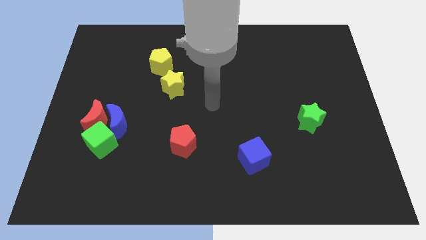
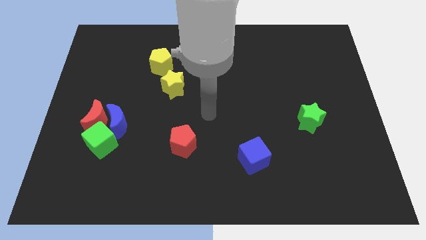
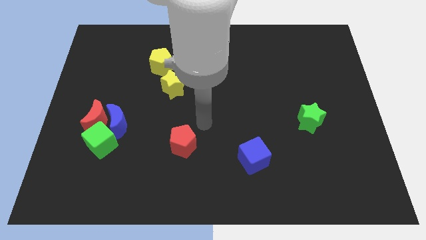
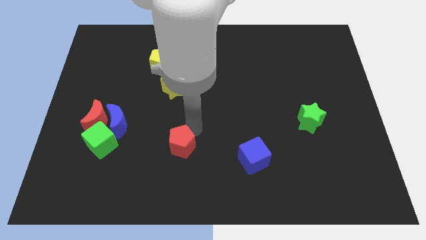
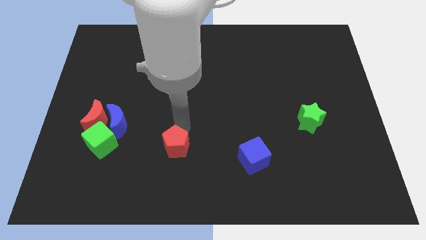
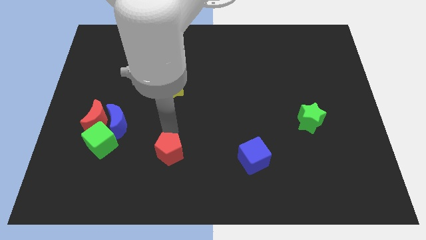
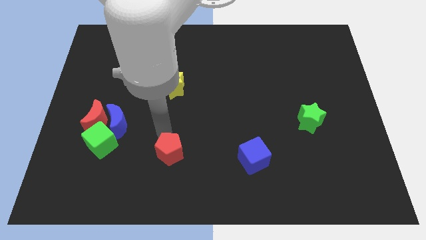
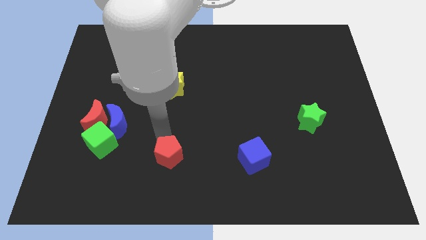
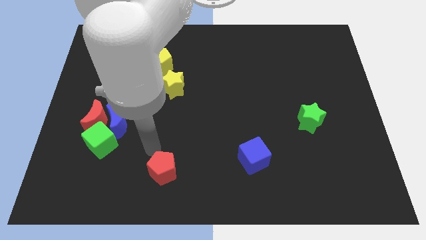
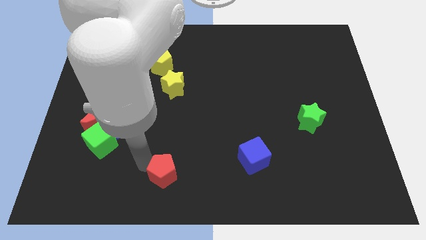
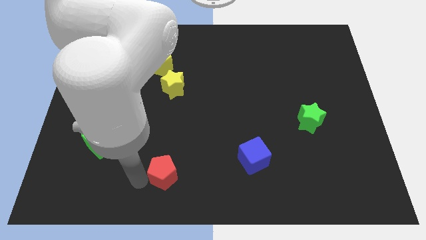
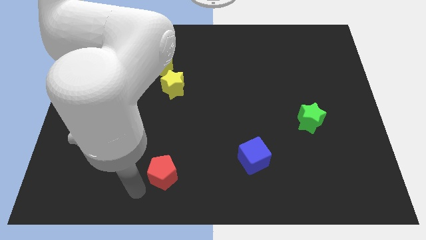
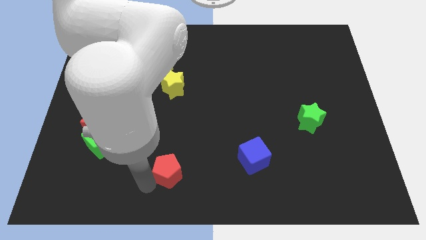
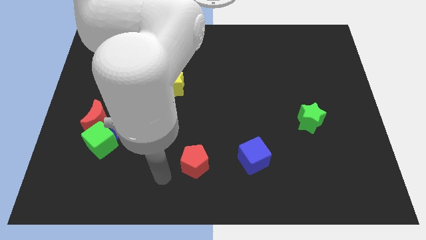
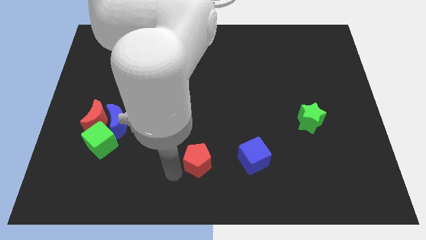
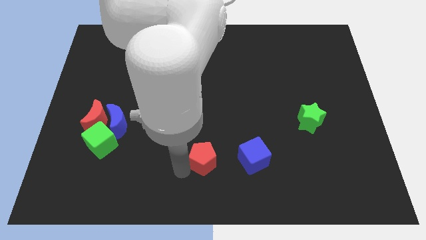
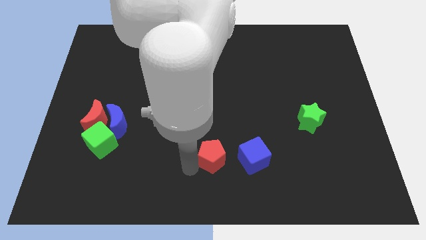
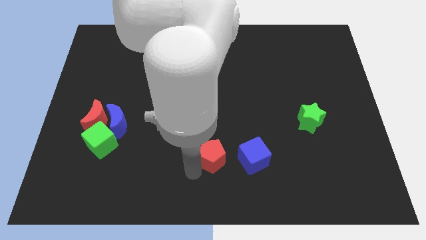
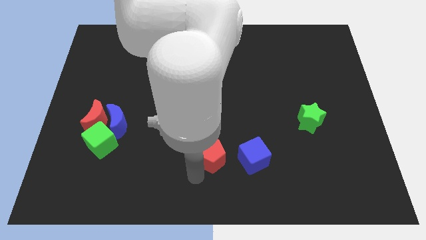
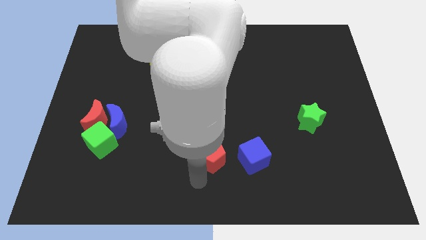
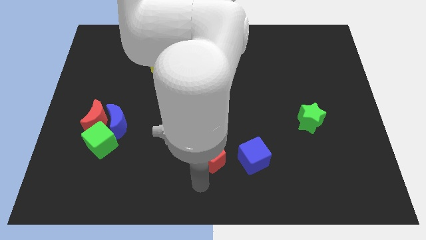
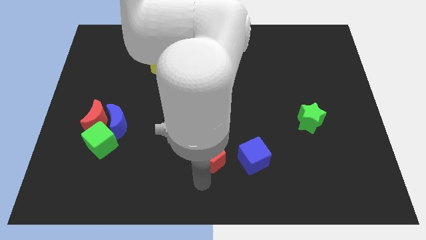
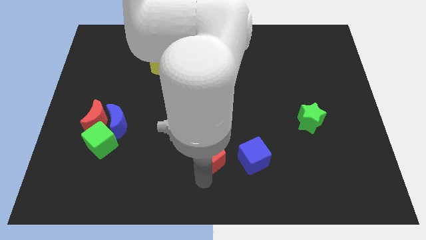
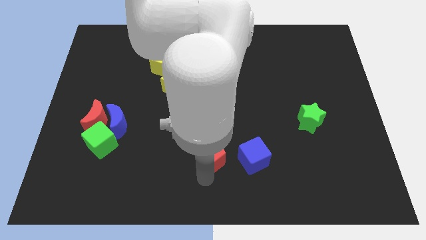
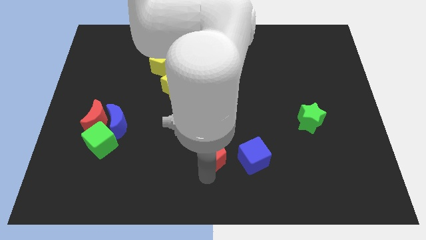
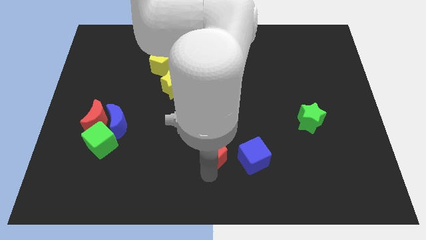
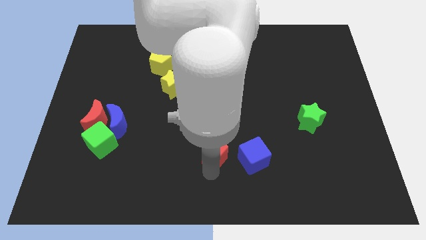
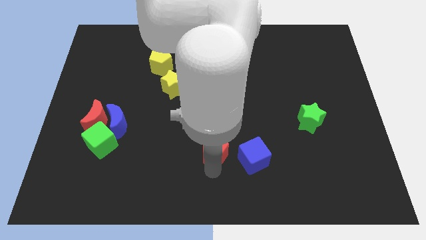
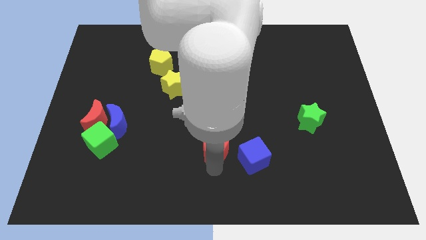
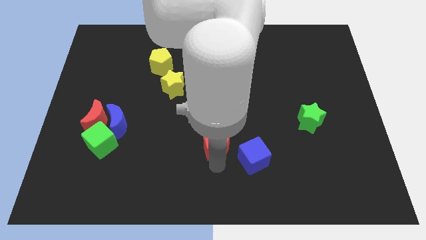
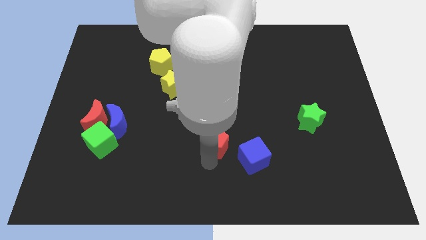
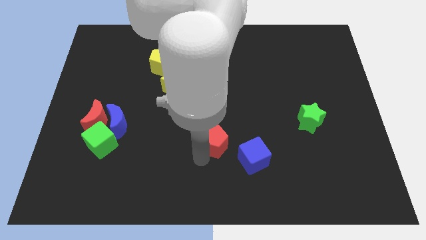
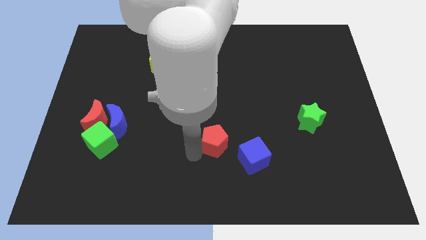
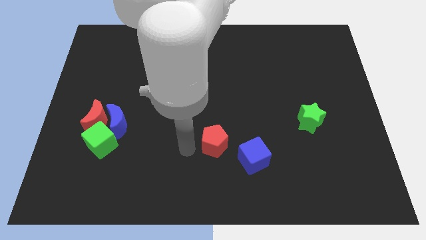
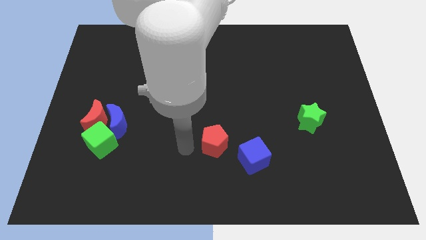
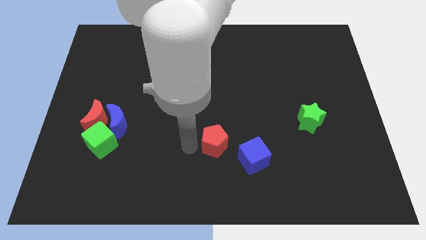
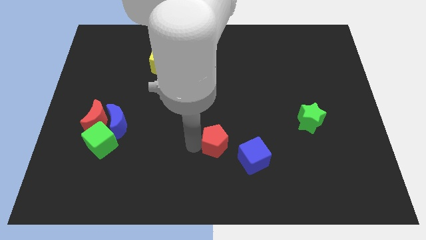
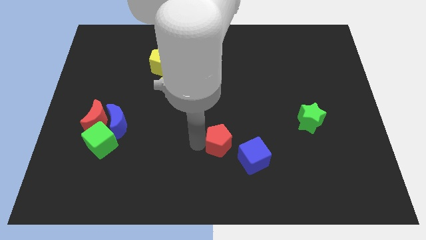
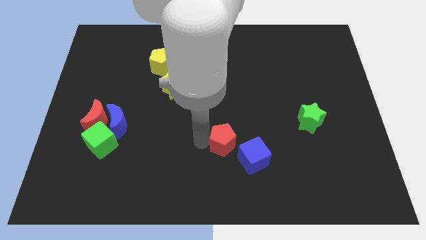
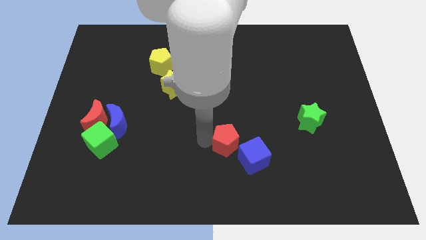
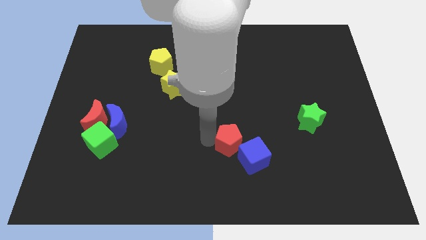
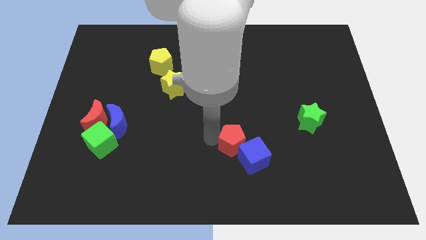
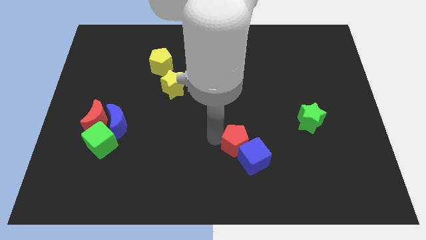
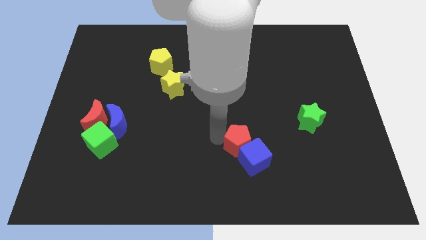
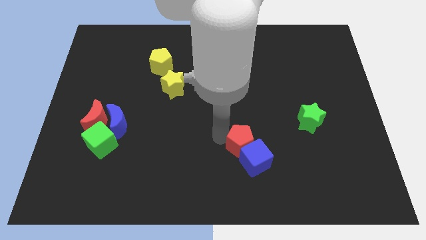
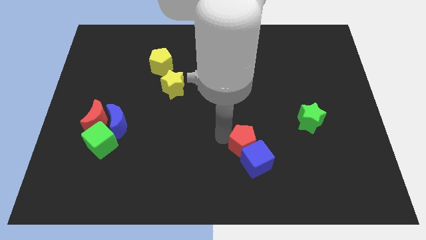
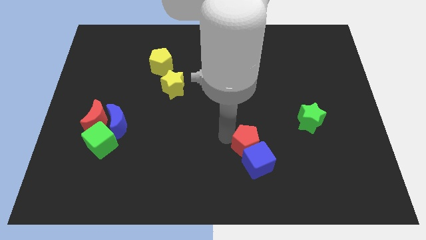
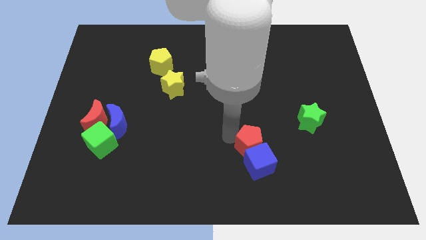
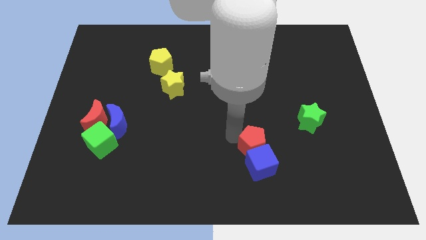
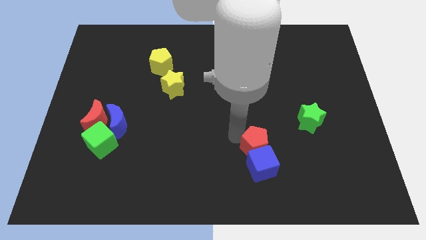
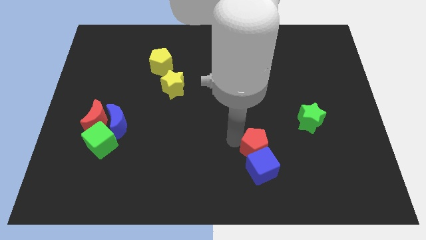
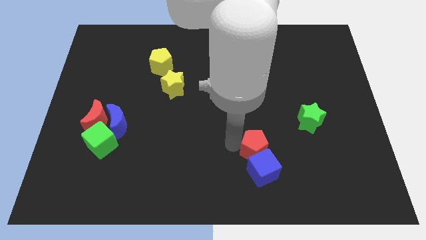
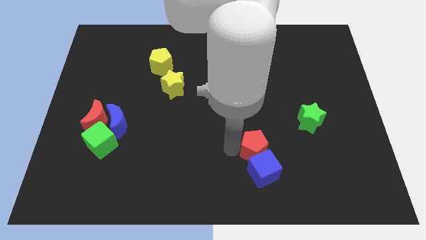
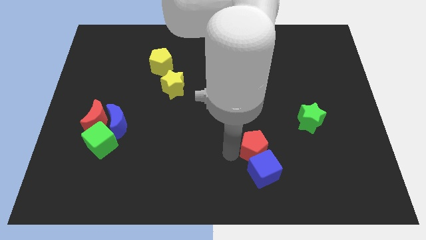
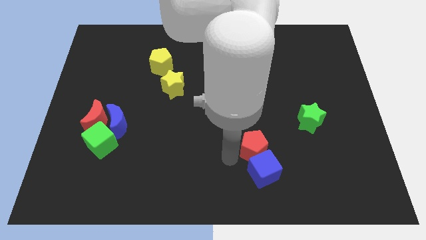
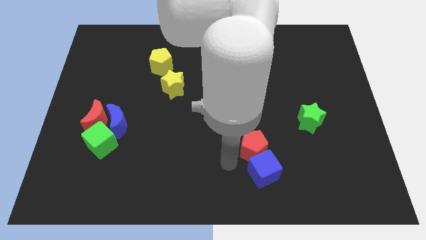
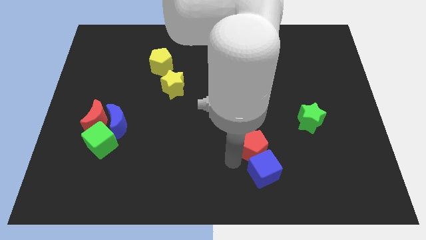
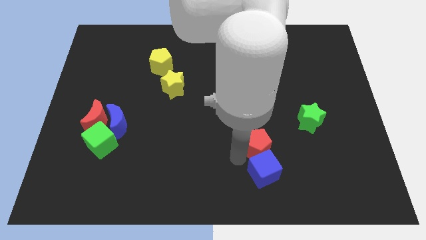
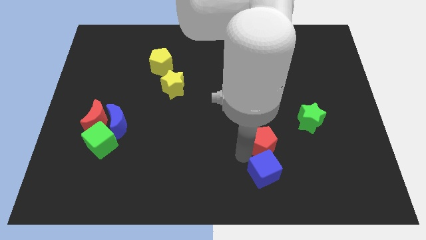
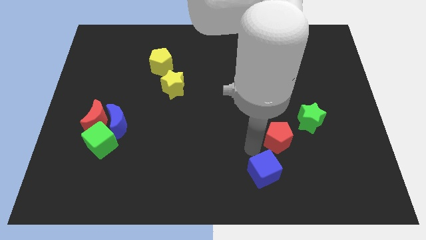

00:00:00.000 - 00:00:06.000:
push the red pentagon right

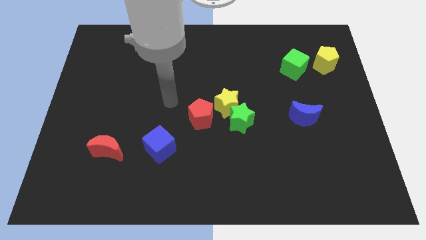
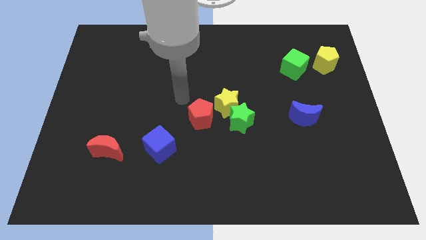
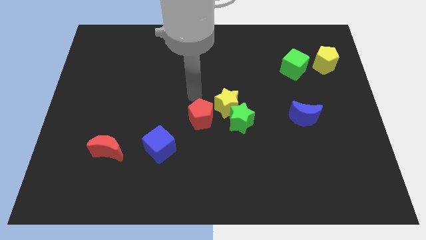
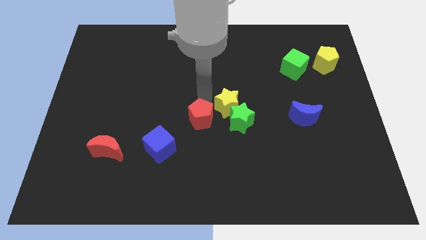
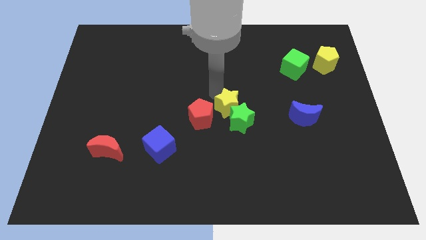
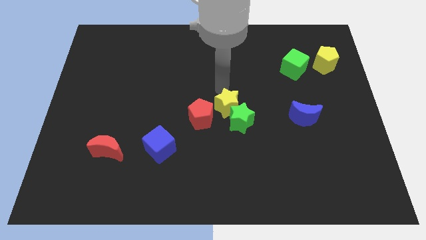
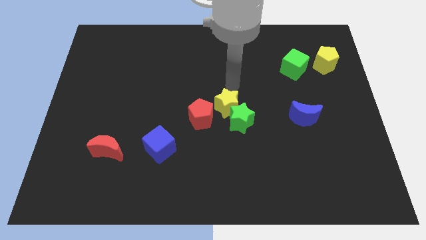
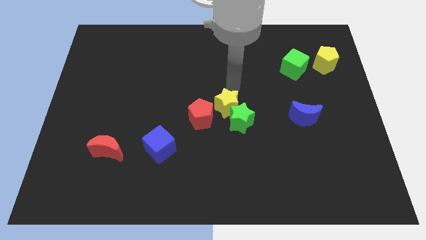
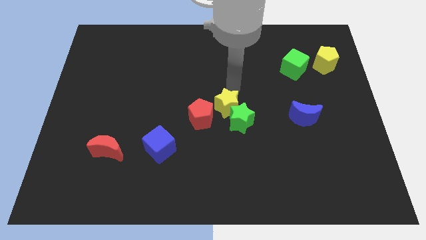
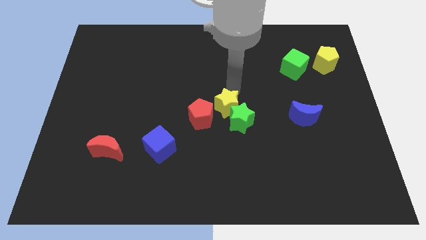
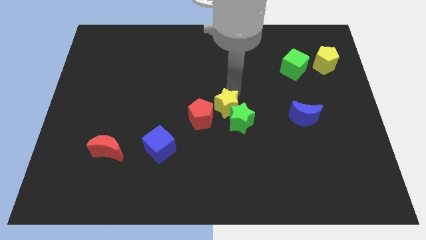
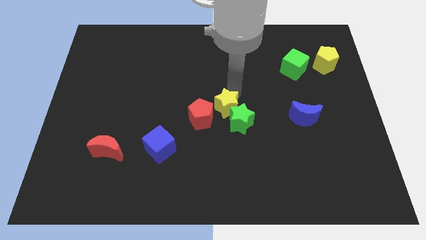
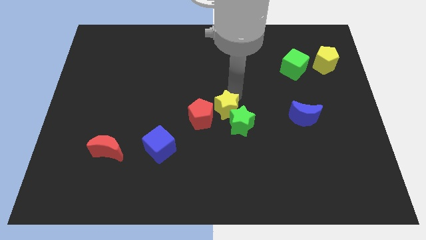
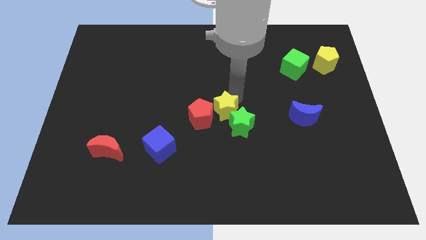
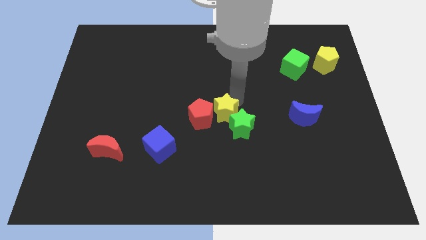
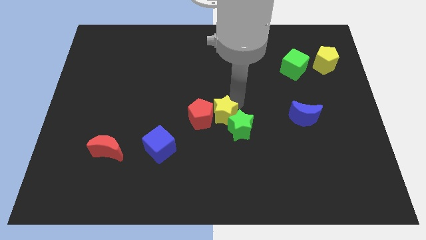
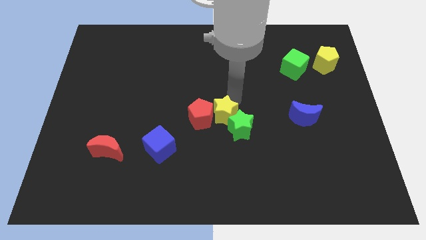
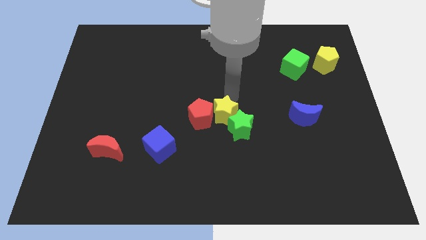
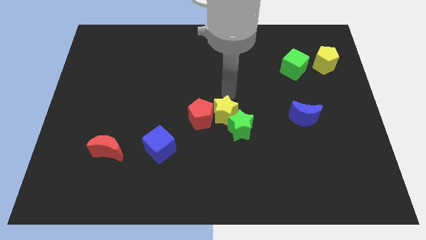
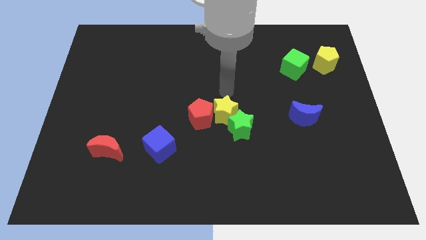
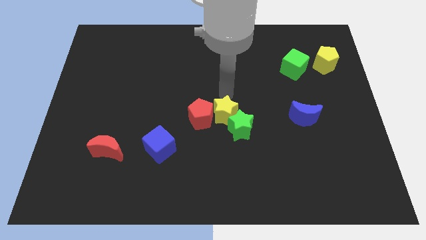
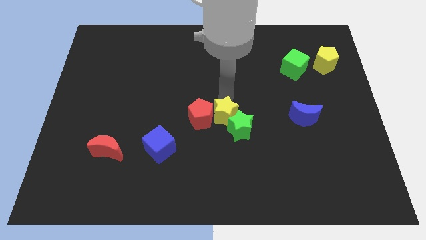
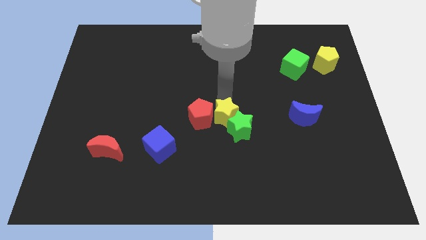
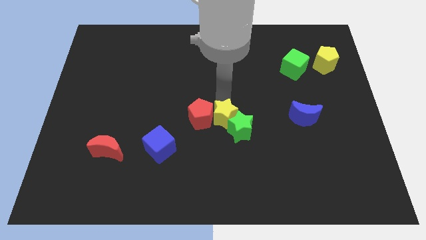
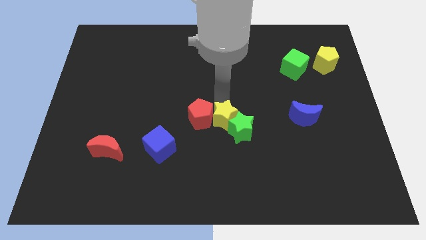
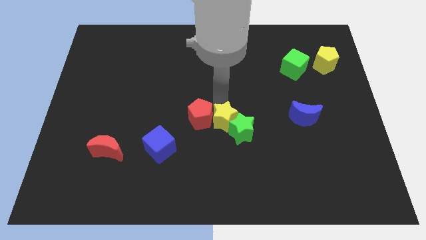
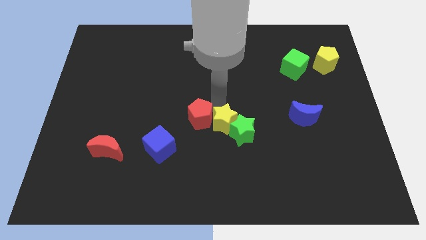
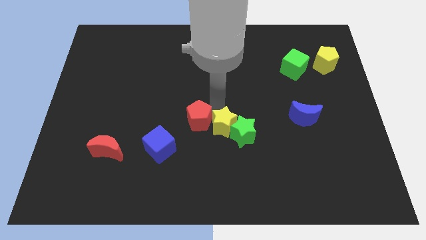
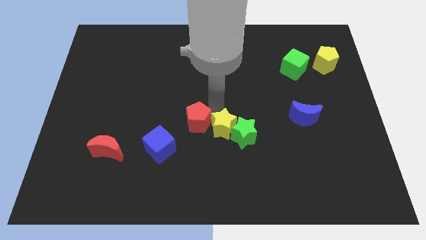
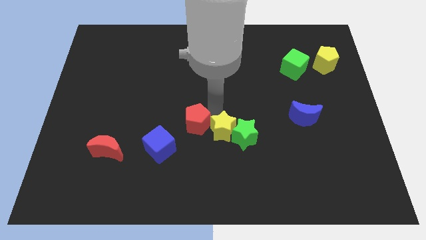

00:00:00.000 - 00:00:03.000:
push the yellow star somewhat downwards
